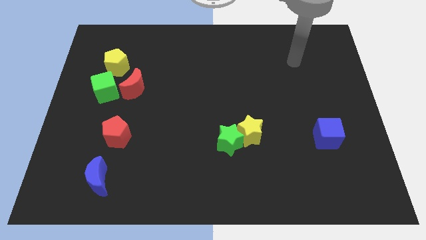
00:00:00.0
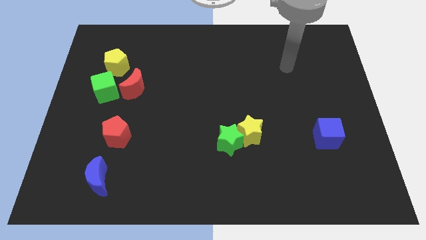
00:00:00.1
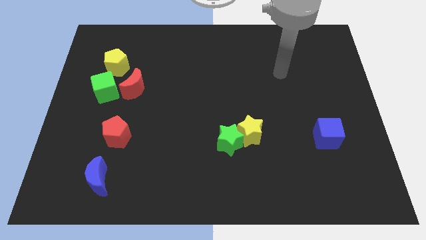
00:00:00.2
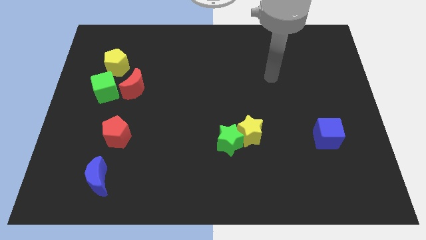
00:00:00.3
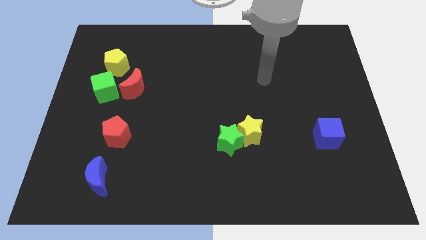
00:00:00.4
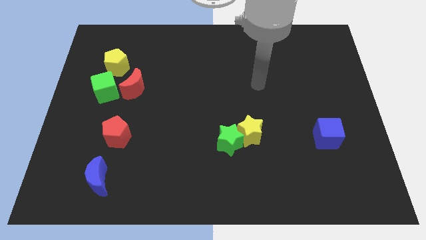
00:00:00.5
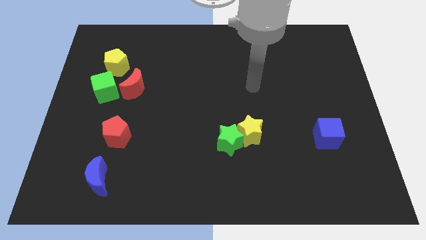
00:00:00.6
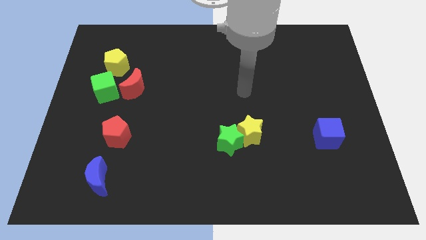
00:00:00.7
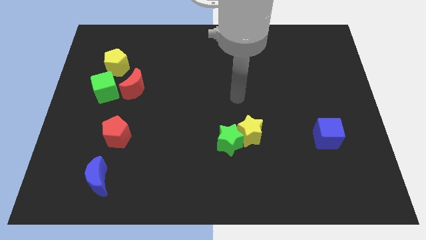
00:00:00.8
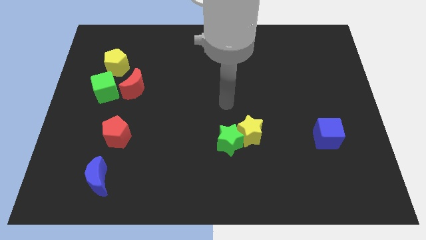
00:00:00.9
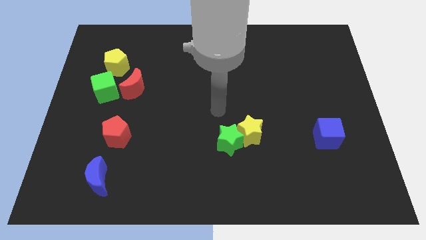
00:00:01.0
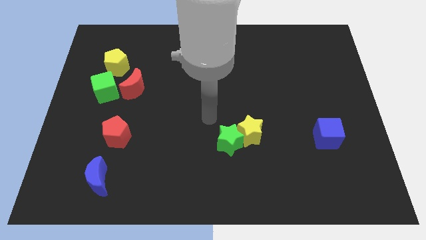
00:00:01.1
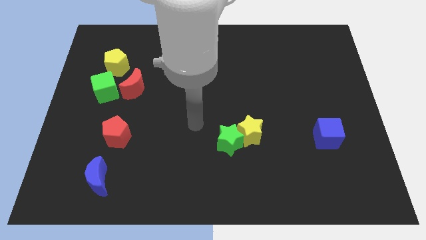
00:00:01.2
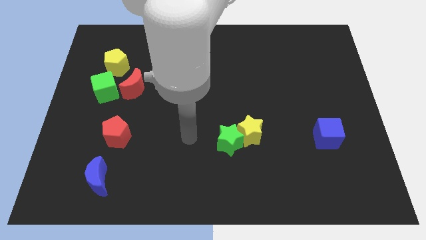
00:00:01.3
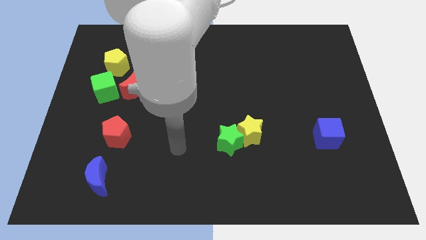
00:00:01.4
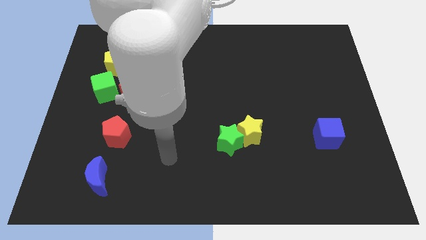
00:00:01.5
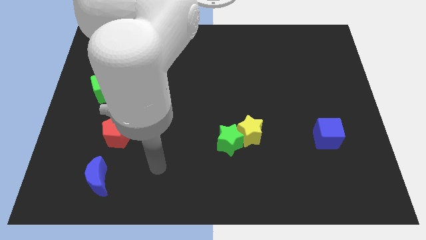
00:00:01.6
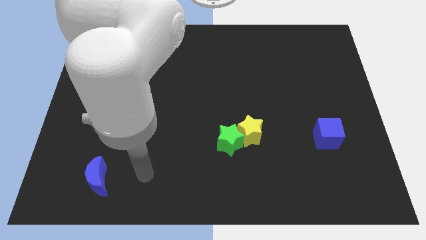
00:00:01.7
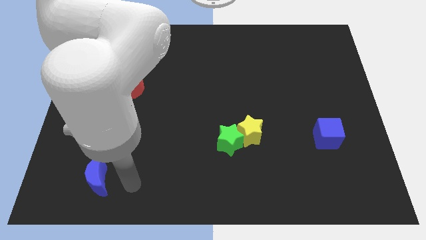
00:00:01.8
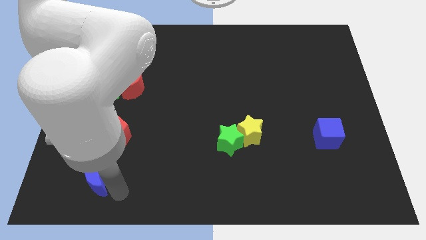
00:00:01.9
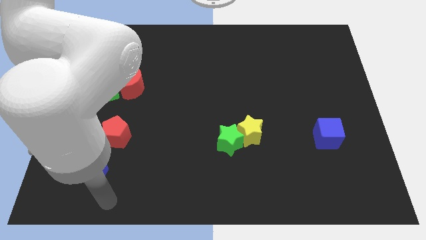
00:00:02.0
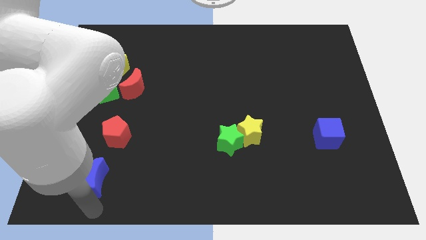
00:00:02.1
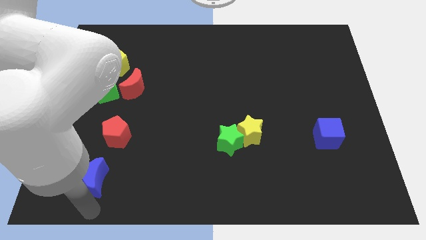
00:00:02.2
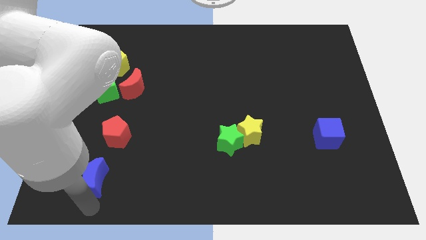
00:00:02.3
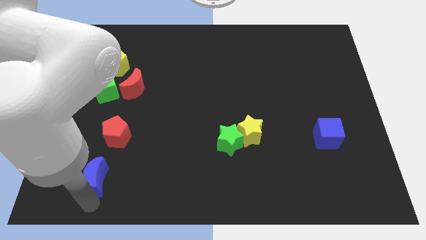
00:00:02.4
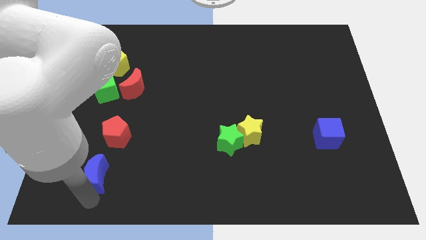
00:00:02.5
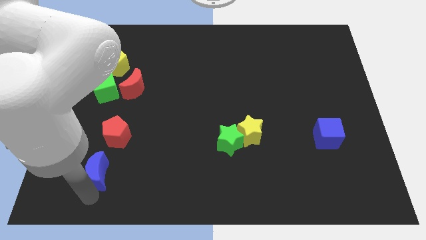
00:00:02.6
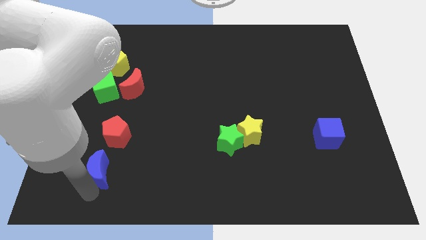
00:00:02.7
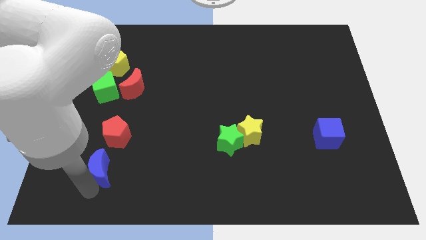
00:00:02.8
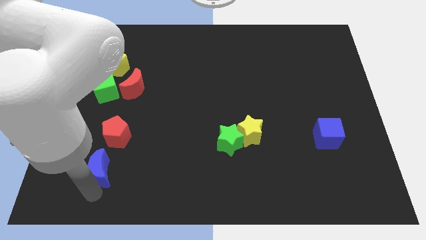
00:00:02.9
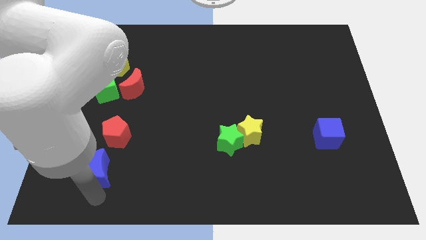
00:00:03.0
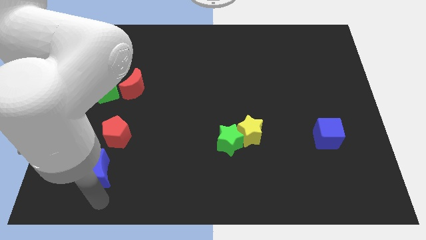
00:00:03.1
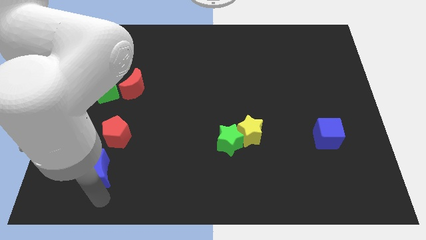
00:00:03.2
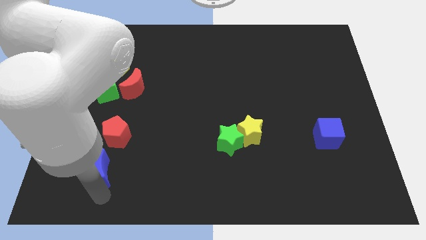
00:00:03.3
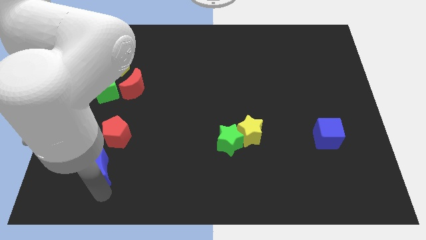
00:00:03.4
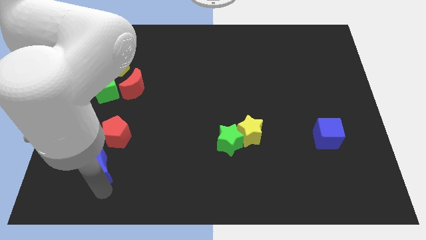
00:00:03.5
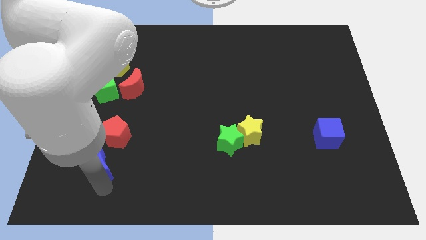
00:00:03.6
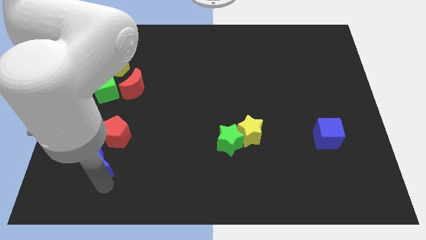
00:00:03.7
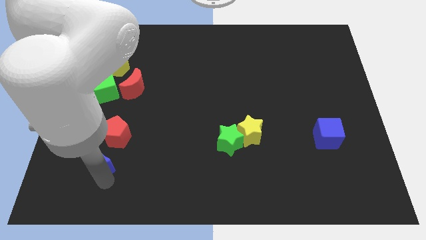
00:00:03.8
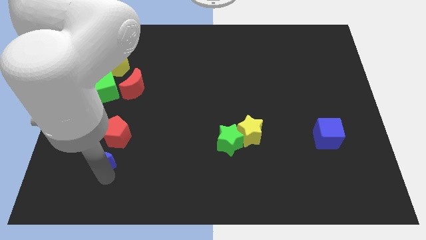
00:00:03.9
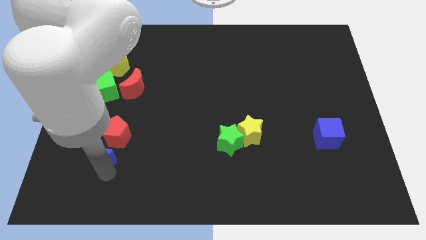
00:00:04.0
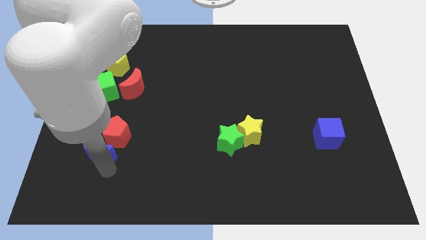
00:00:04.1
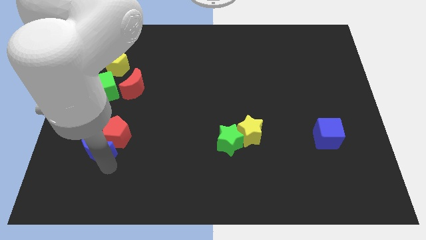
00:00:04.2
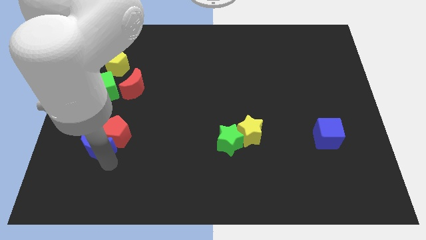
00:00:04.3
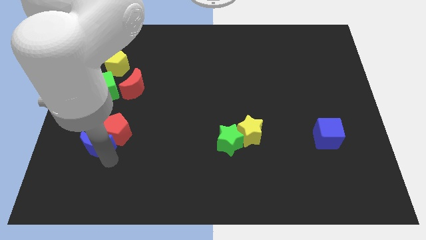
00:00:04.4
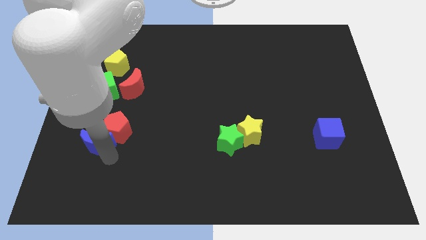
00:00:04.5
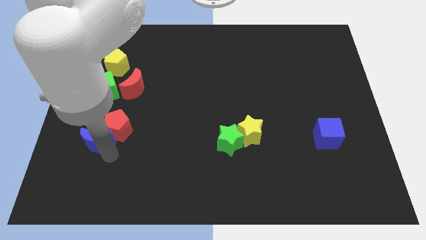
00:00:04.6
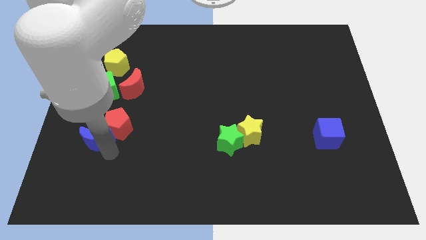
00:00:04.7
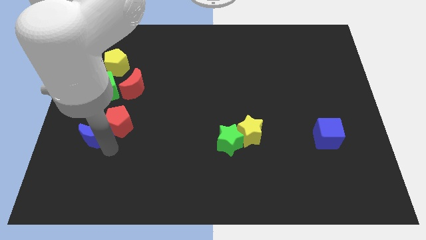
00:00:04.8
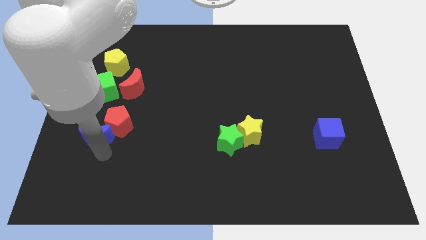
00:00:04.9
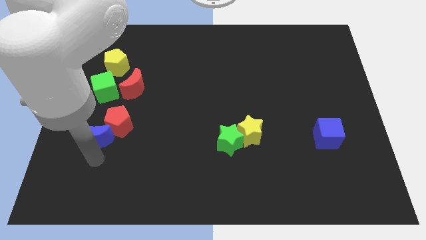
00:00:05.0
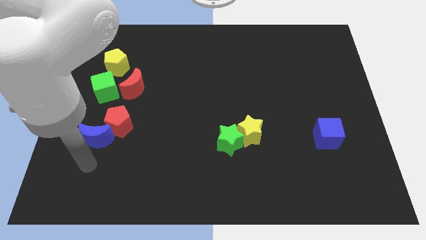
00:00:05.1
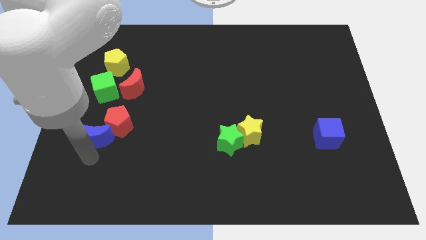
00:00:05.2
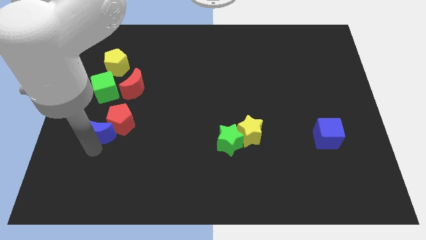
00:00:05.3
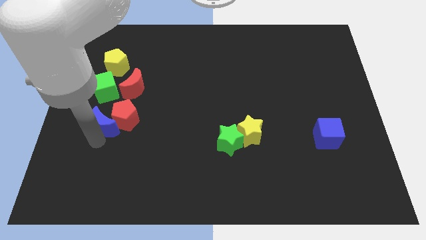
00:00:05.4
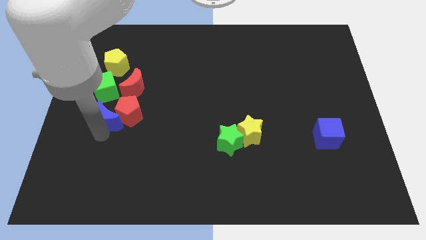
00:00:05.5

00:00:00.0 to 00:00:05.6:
slide the blue moon diagonally down and to the left of the red moon
